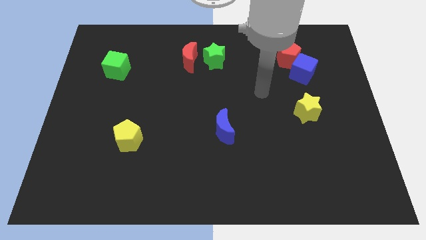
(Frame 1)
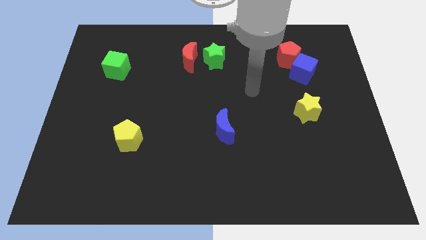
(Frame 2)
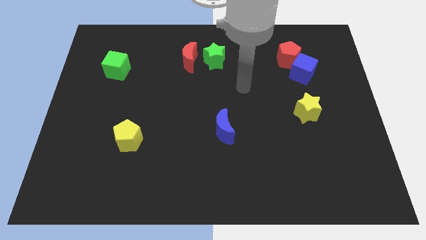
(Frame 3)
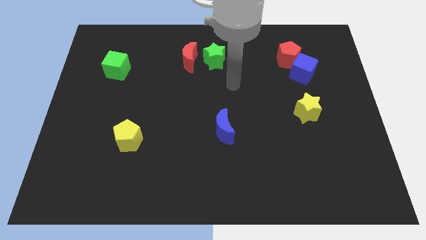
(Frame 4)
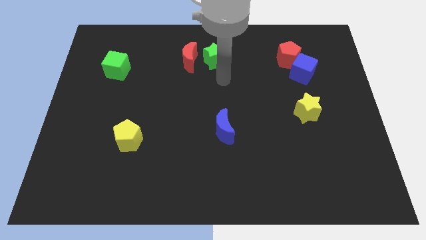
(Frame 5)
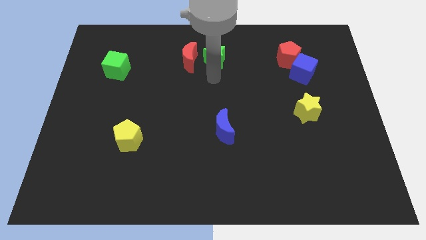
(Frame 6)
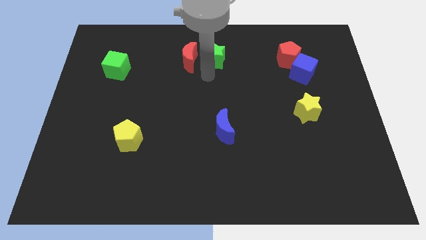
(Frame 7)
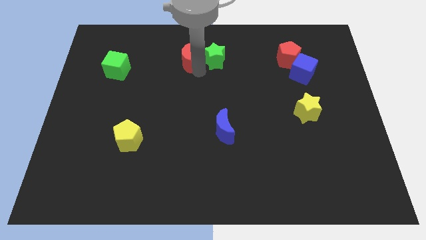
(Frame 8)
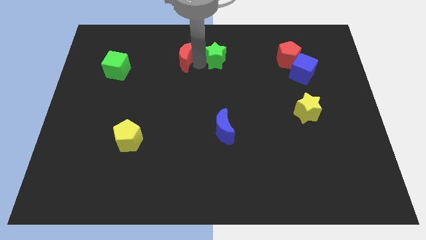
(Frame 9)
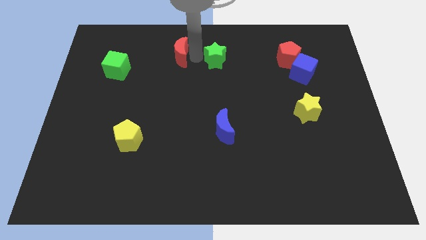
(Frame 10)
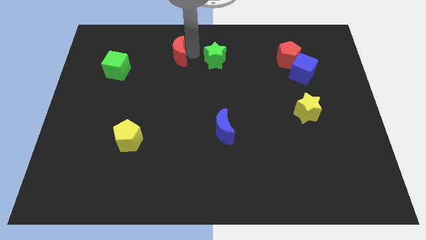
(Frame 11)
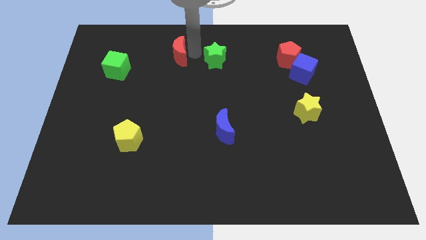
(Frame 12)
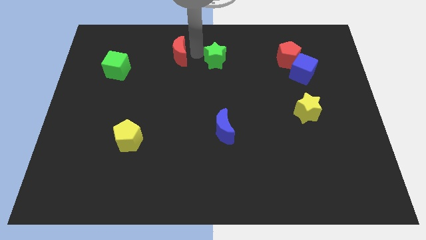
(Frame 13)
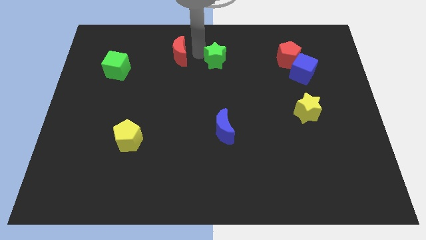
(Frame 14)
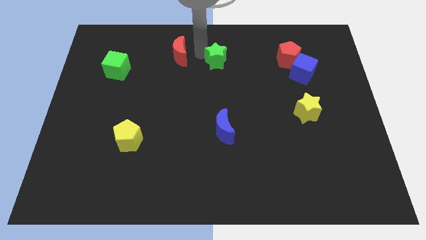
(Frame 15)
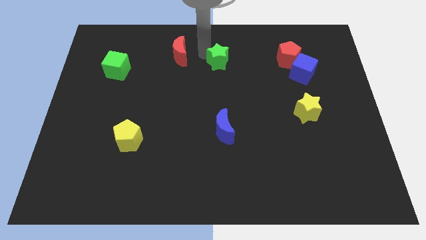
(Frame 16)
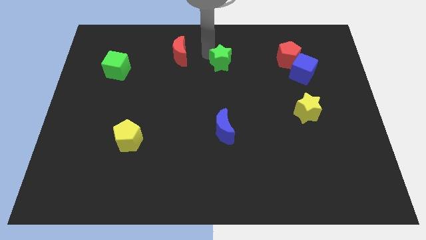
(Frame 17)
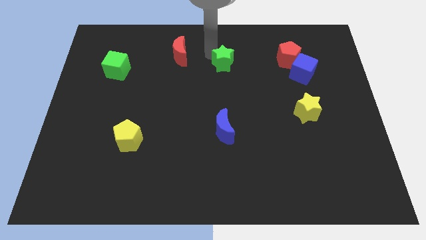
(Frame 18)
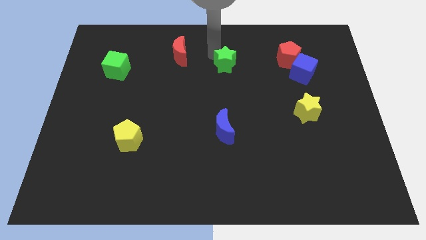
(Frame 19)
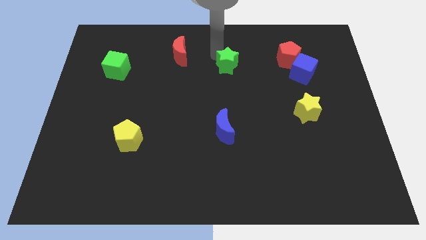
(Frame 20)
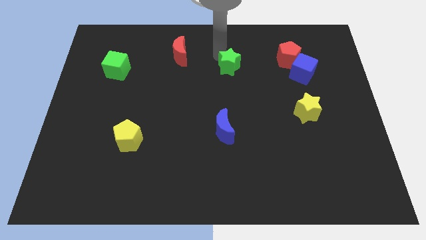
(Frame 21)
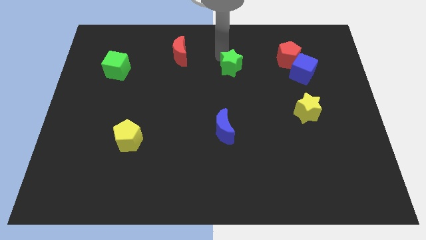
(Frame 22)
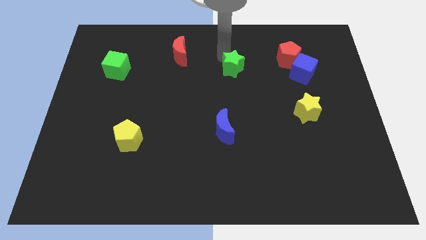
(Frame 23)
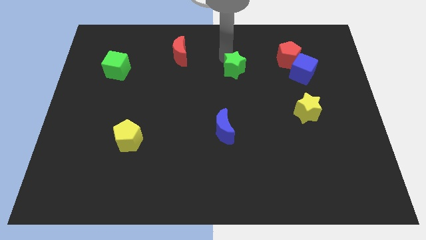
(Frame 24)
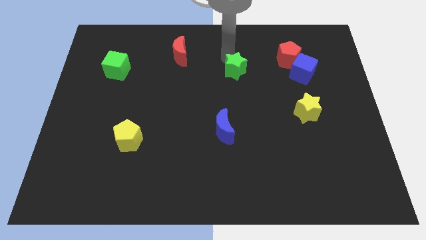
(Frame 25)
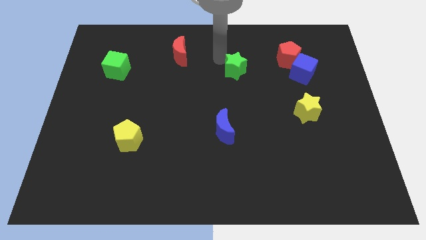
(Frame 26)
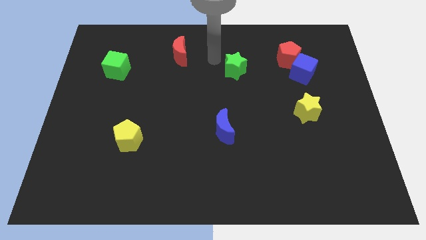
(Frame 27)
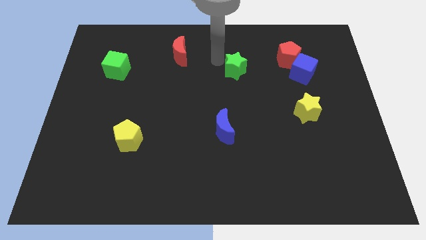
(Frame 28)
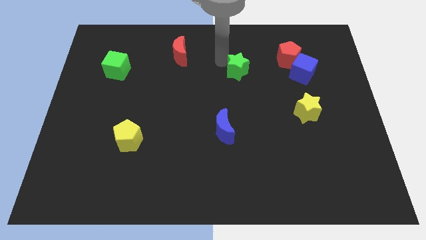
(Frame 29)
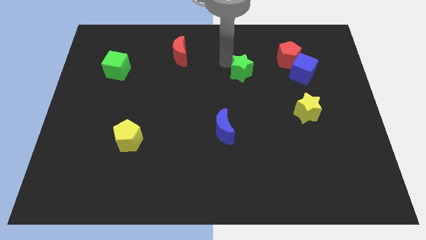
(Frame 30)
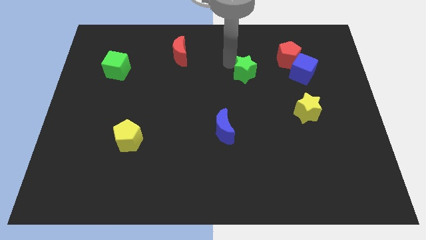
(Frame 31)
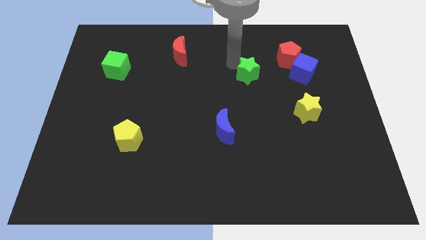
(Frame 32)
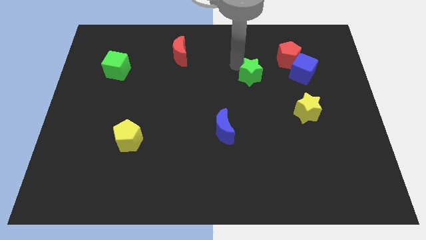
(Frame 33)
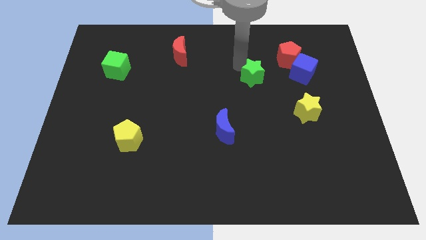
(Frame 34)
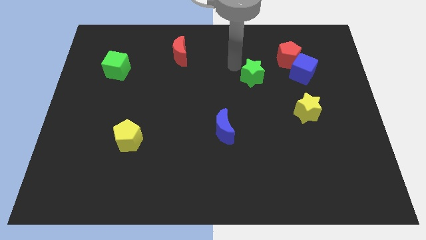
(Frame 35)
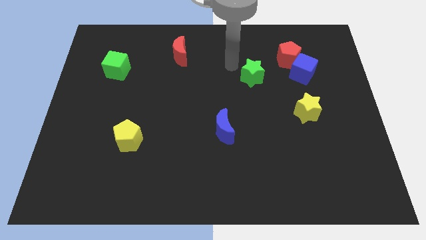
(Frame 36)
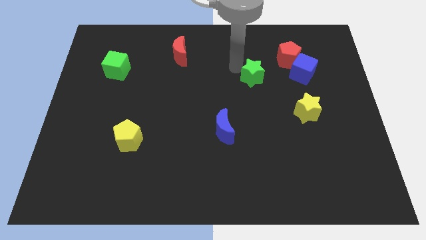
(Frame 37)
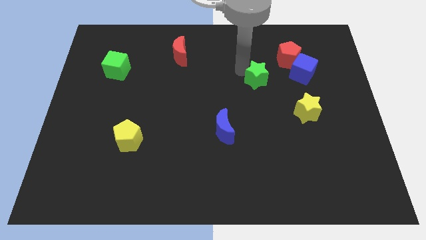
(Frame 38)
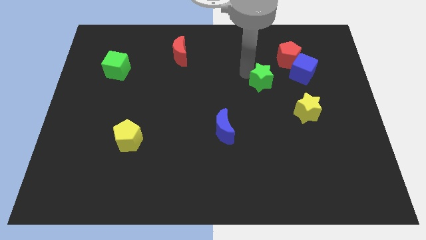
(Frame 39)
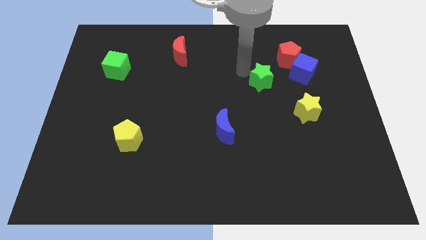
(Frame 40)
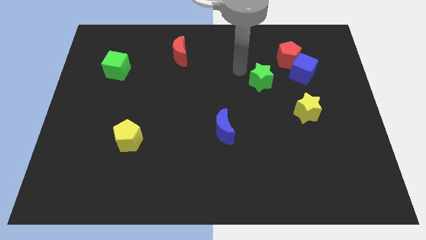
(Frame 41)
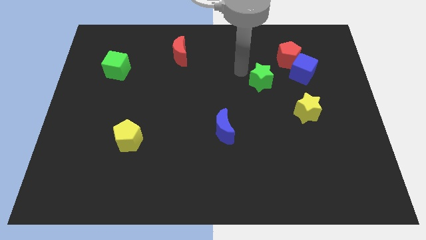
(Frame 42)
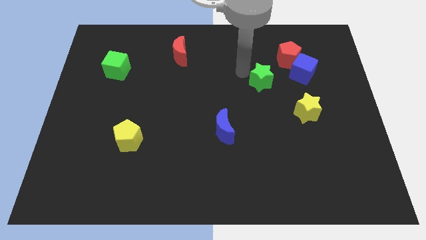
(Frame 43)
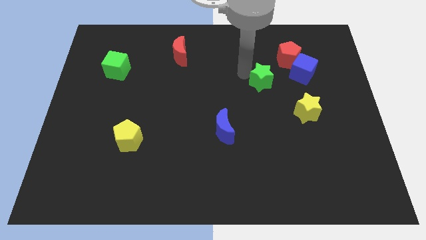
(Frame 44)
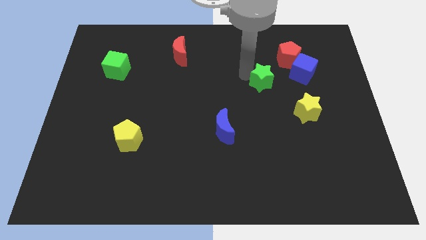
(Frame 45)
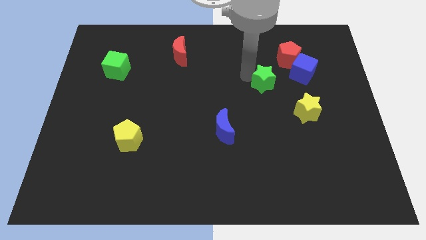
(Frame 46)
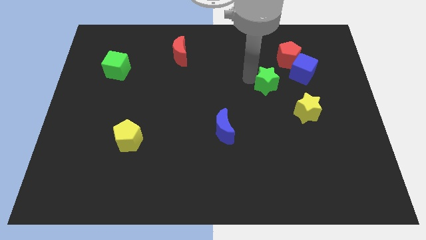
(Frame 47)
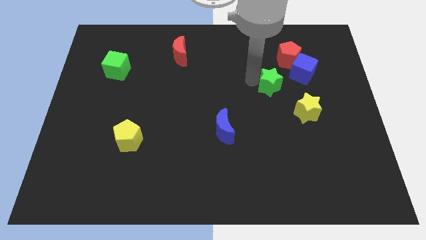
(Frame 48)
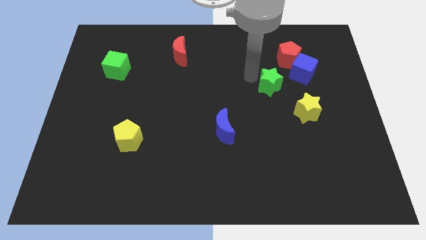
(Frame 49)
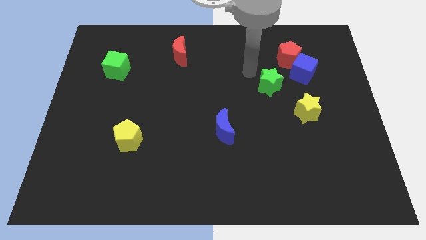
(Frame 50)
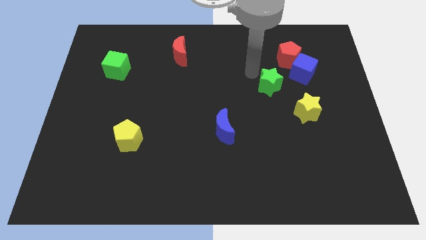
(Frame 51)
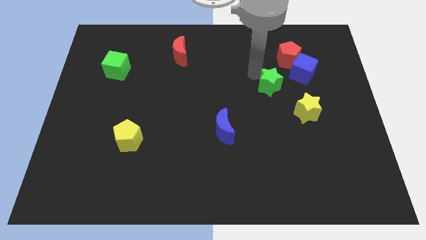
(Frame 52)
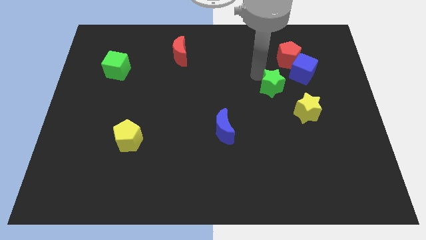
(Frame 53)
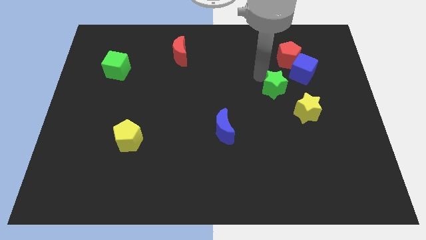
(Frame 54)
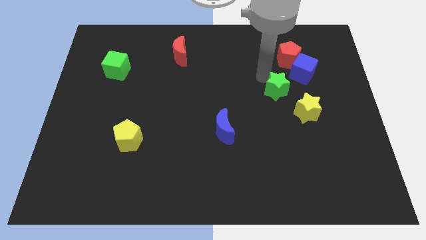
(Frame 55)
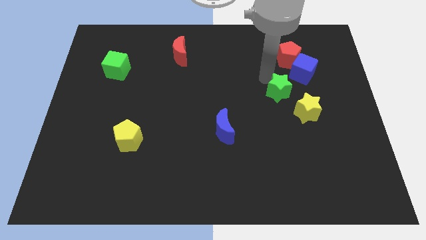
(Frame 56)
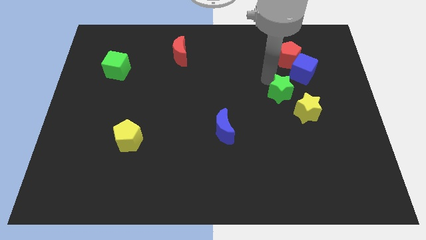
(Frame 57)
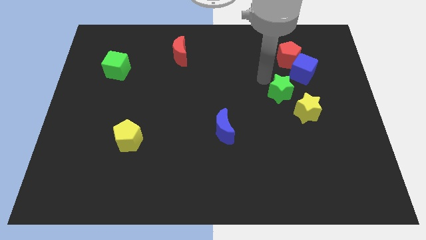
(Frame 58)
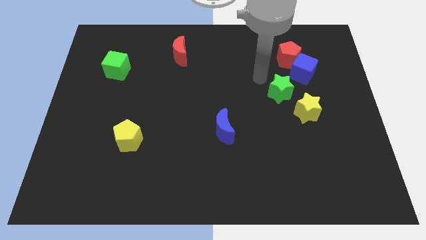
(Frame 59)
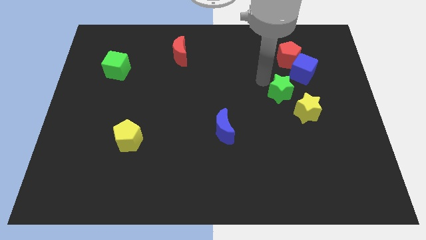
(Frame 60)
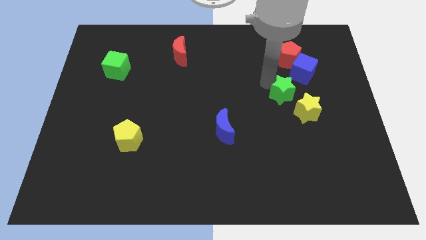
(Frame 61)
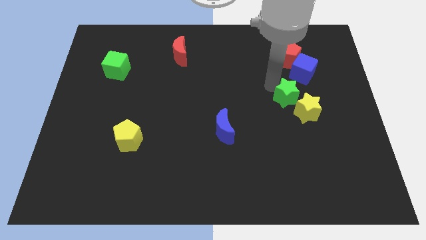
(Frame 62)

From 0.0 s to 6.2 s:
put the green star next to the yellow star

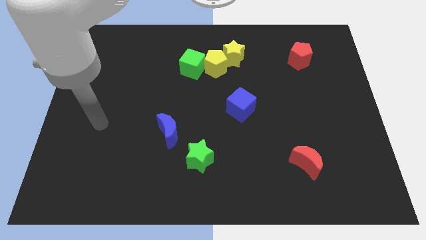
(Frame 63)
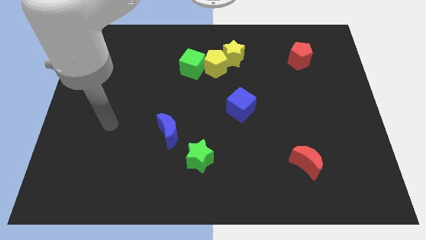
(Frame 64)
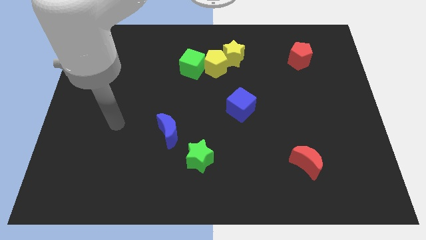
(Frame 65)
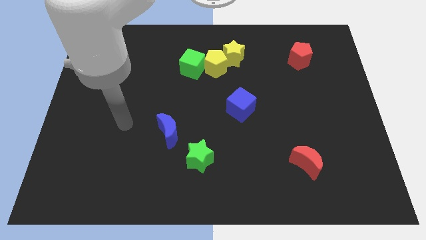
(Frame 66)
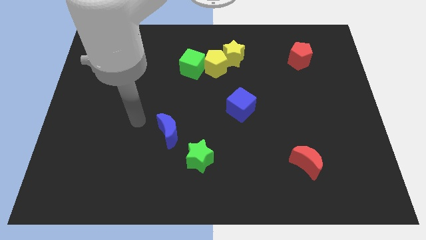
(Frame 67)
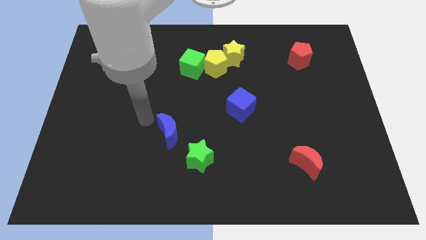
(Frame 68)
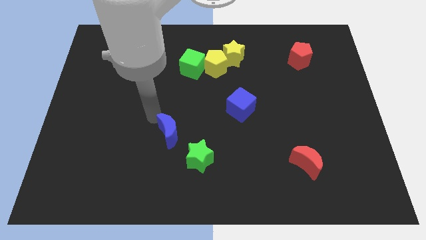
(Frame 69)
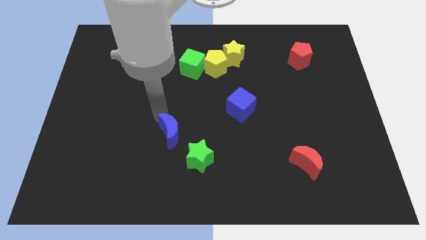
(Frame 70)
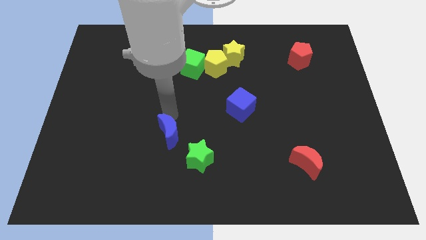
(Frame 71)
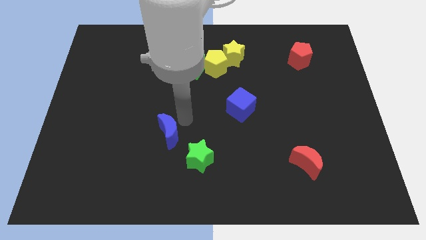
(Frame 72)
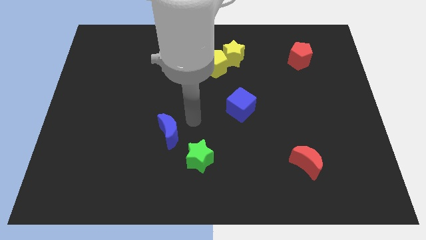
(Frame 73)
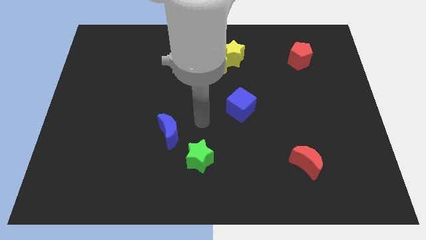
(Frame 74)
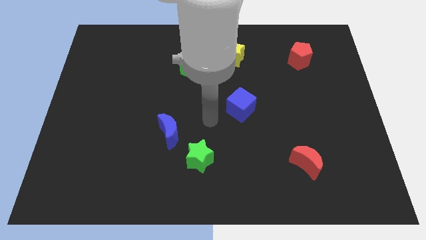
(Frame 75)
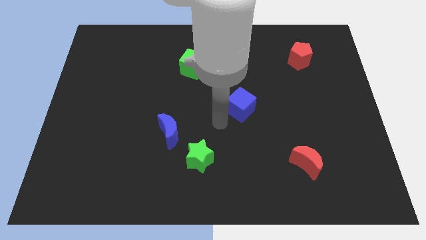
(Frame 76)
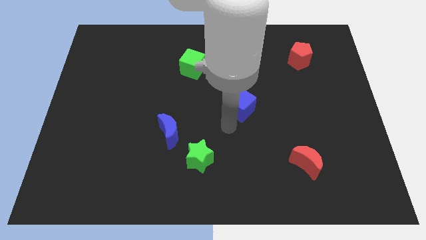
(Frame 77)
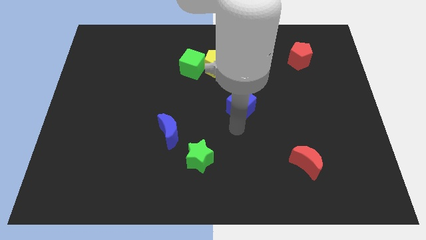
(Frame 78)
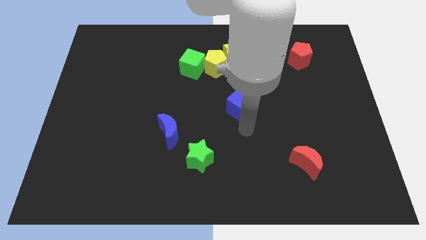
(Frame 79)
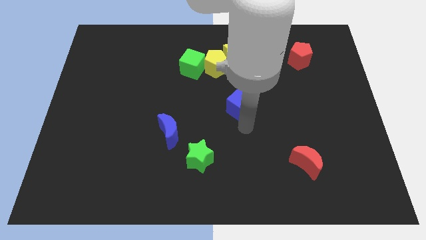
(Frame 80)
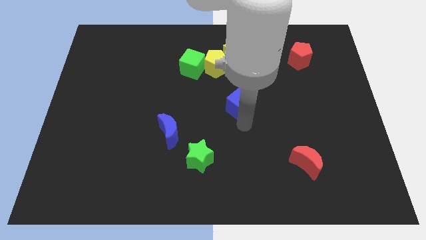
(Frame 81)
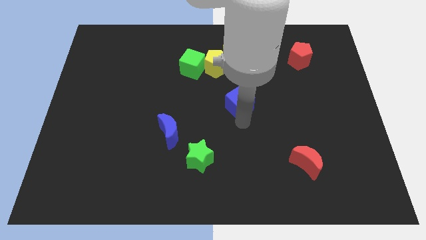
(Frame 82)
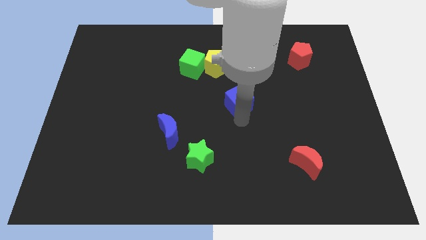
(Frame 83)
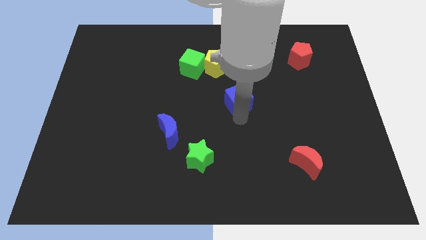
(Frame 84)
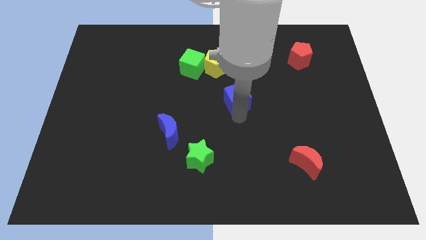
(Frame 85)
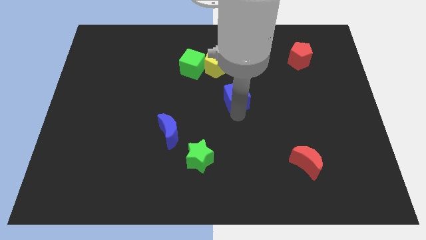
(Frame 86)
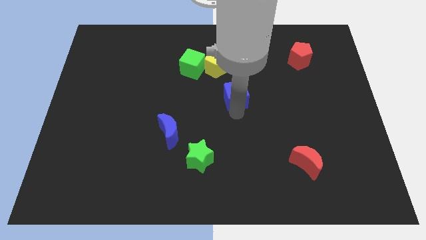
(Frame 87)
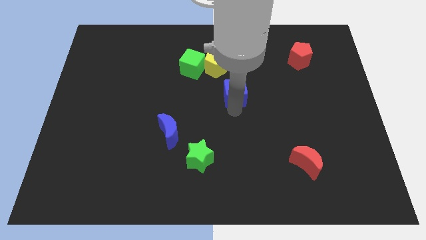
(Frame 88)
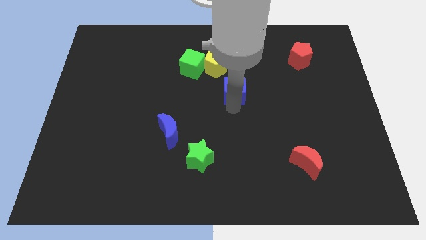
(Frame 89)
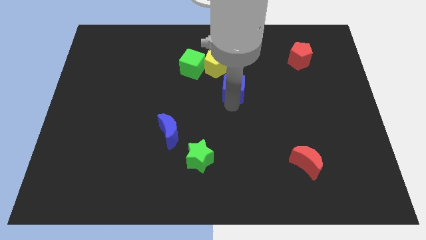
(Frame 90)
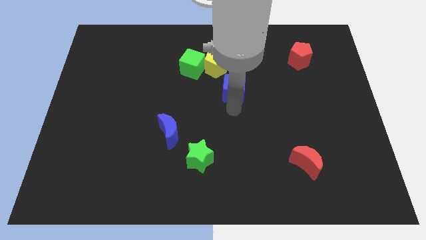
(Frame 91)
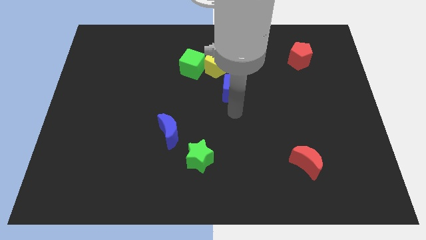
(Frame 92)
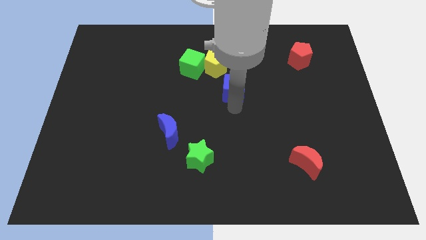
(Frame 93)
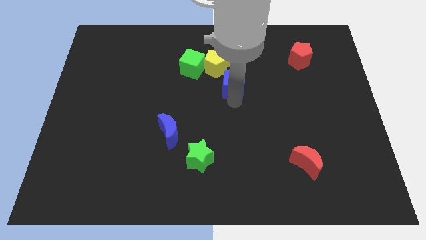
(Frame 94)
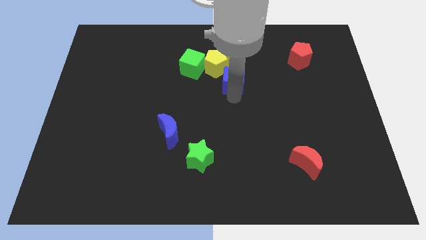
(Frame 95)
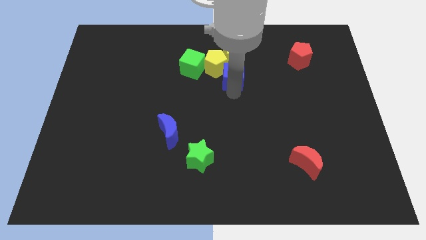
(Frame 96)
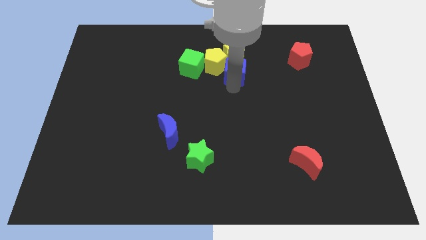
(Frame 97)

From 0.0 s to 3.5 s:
push the blue cube next to the yellow star
